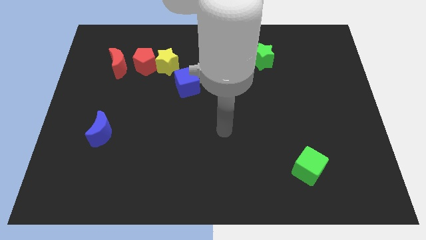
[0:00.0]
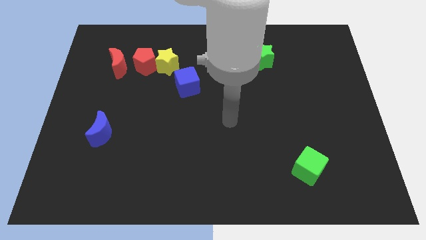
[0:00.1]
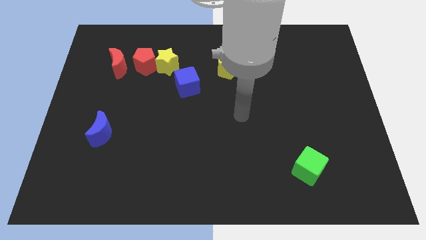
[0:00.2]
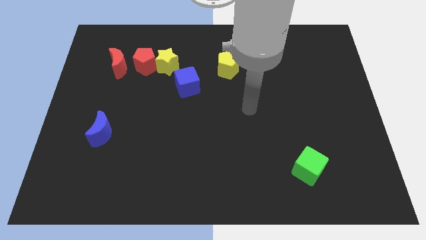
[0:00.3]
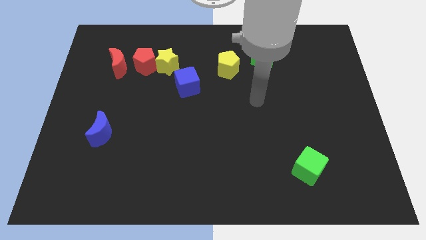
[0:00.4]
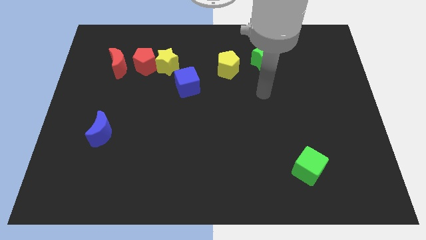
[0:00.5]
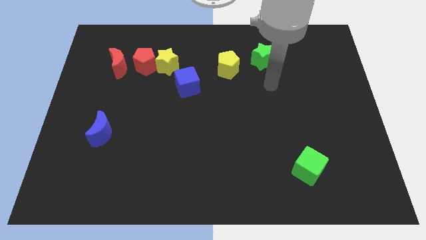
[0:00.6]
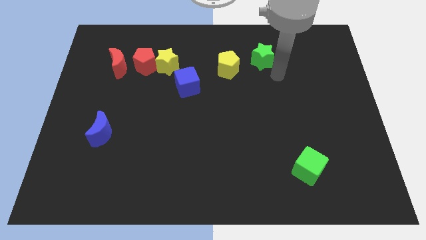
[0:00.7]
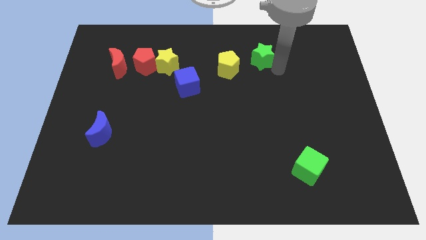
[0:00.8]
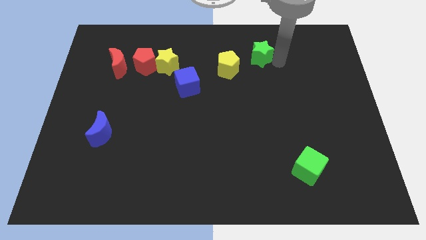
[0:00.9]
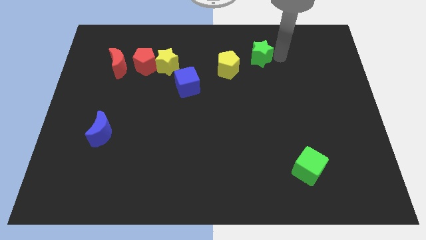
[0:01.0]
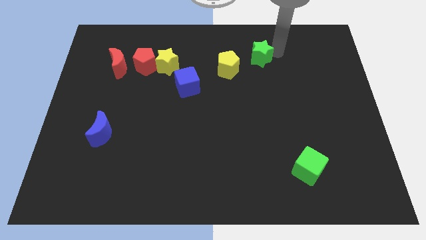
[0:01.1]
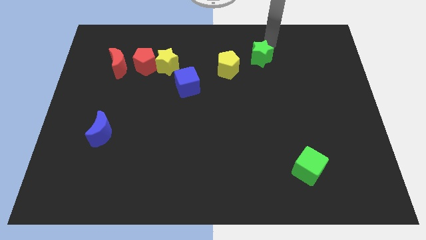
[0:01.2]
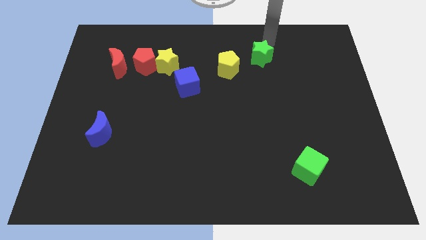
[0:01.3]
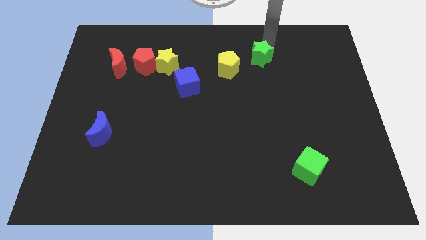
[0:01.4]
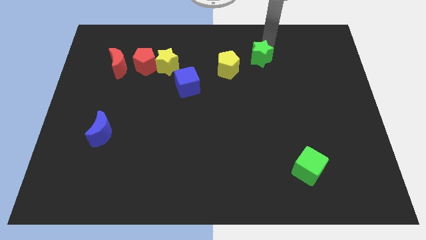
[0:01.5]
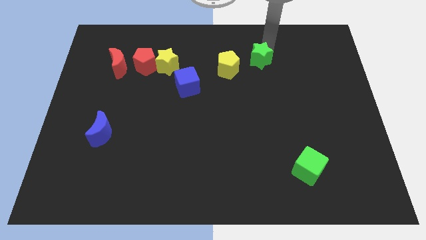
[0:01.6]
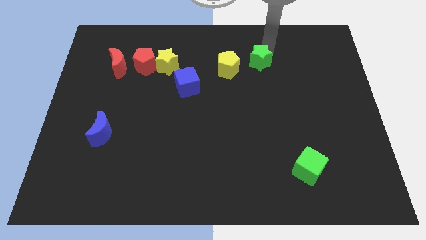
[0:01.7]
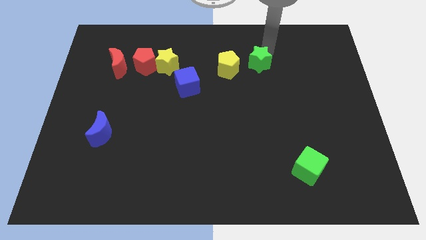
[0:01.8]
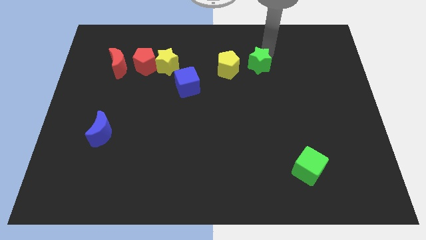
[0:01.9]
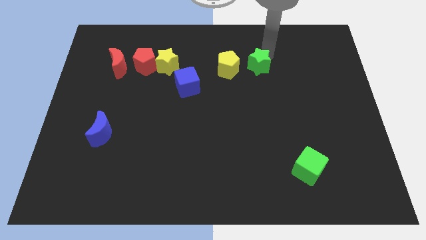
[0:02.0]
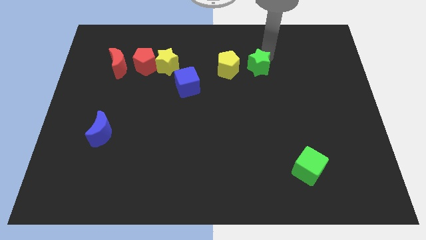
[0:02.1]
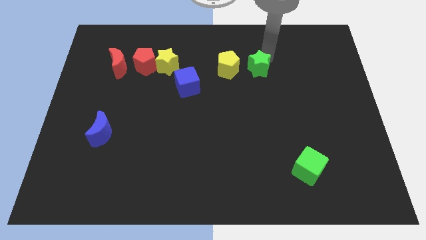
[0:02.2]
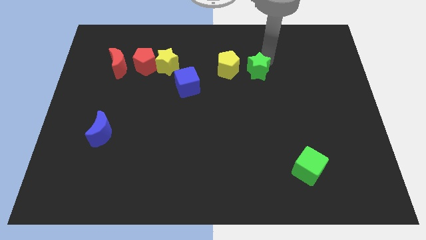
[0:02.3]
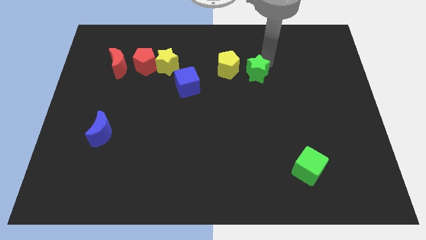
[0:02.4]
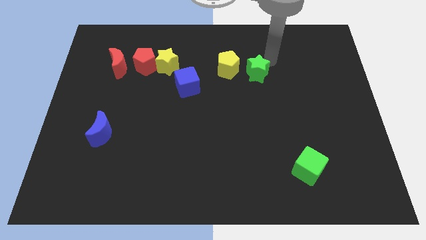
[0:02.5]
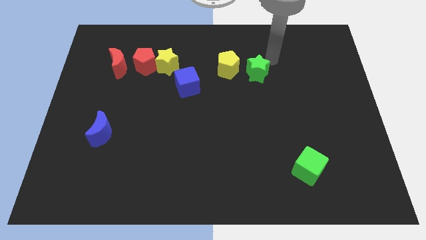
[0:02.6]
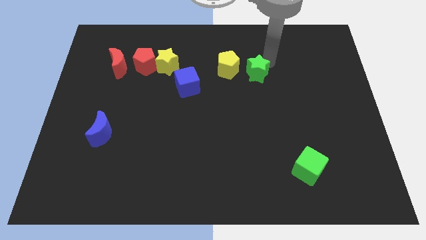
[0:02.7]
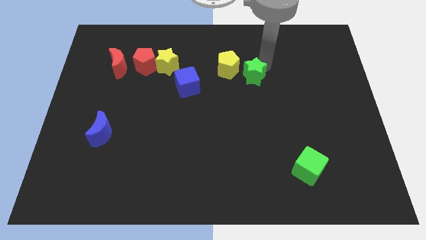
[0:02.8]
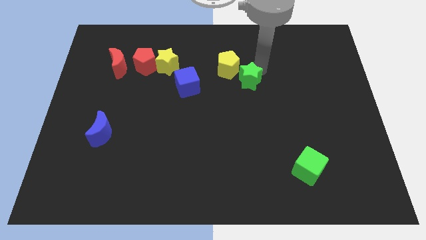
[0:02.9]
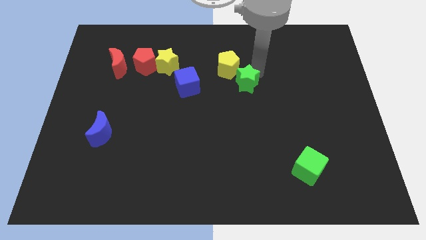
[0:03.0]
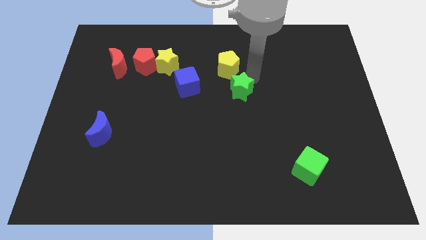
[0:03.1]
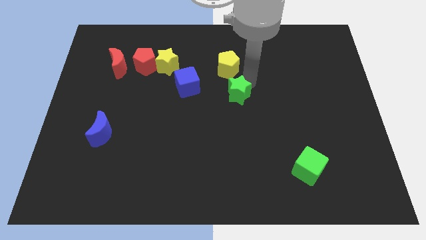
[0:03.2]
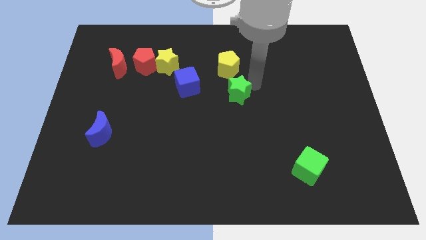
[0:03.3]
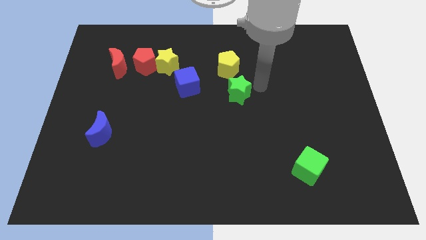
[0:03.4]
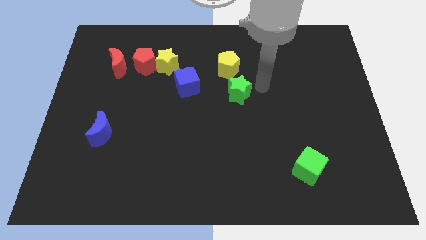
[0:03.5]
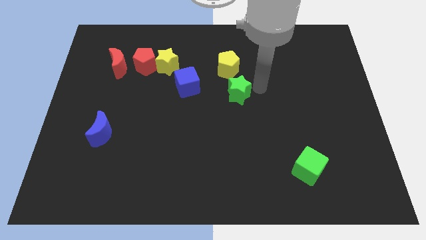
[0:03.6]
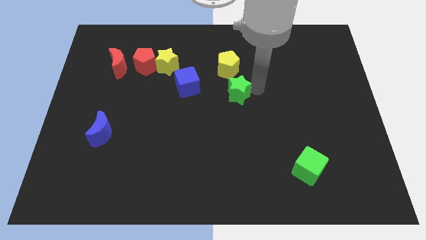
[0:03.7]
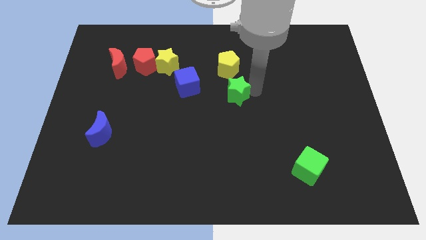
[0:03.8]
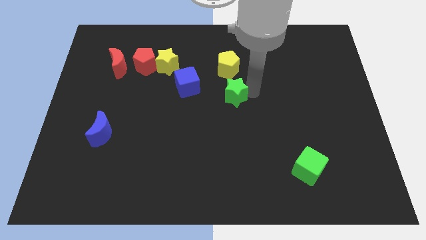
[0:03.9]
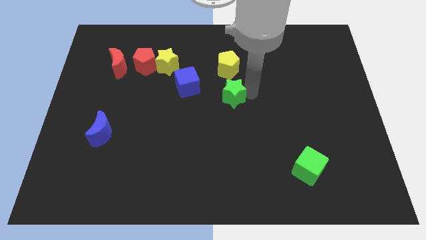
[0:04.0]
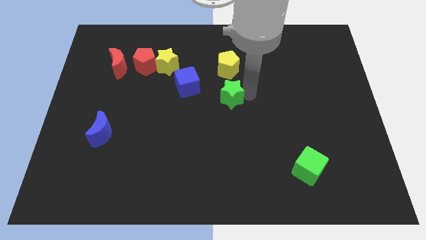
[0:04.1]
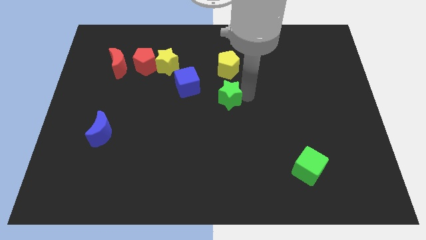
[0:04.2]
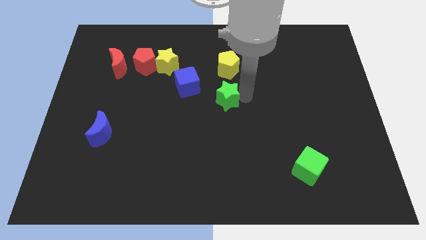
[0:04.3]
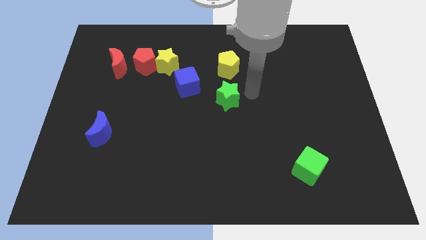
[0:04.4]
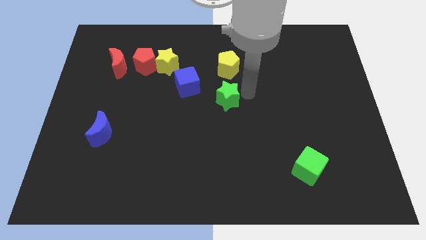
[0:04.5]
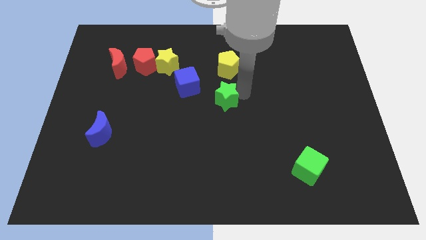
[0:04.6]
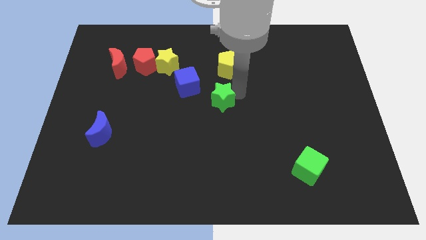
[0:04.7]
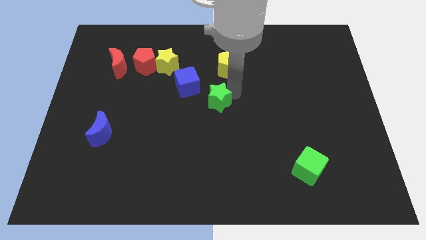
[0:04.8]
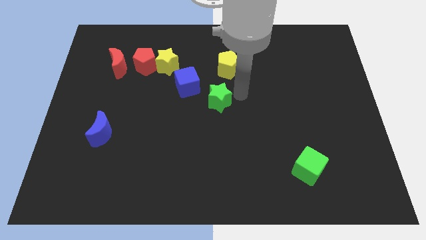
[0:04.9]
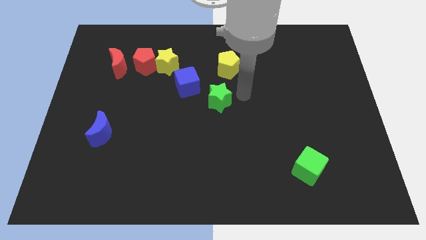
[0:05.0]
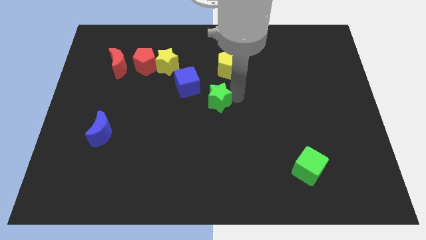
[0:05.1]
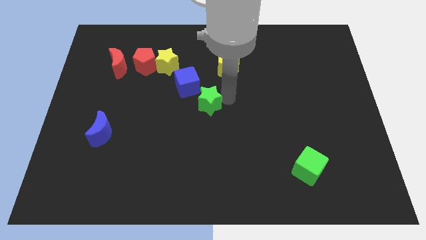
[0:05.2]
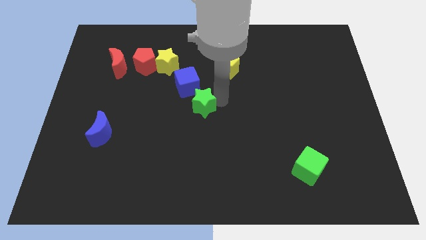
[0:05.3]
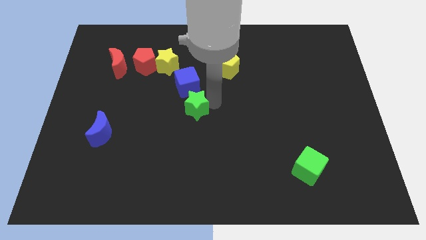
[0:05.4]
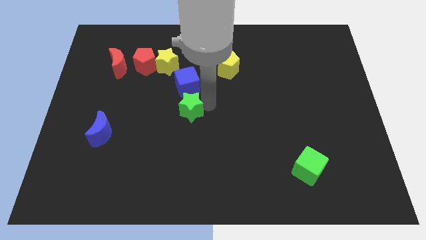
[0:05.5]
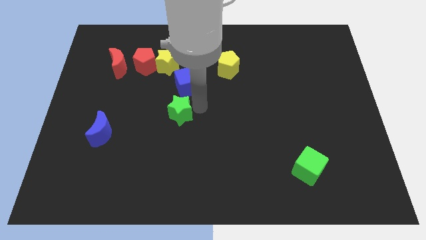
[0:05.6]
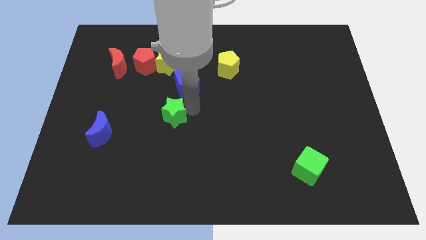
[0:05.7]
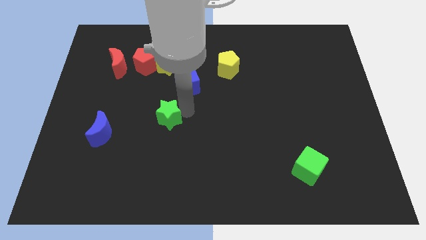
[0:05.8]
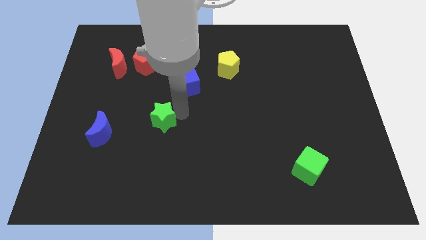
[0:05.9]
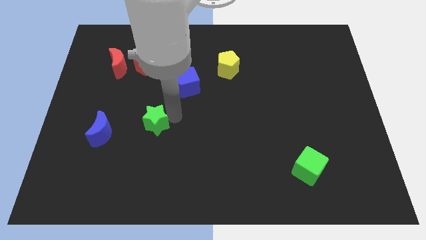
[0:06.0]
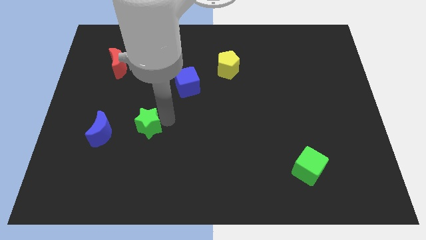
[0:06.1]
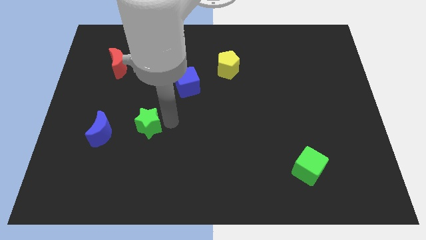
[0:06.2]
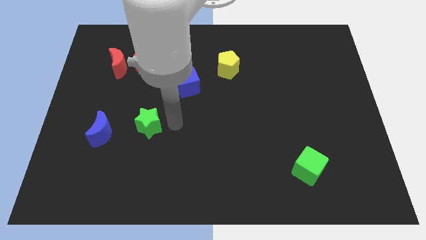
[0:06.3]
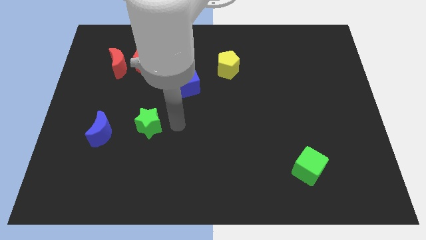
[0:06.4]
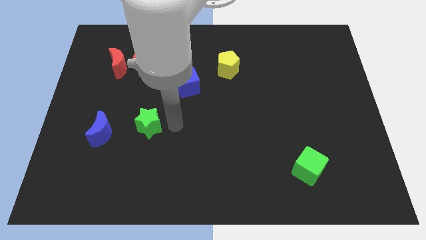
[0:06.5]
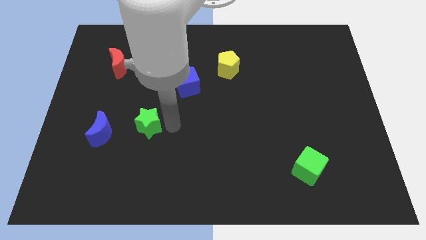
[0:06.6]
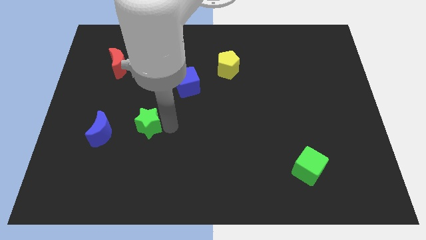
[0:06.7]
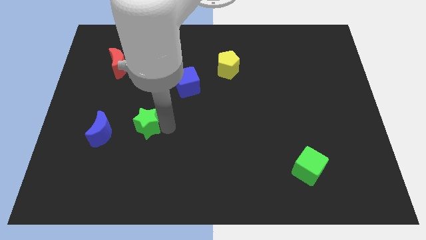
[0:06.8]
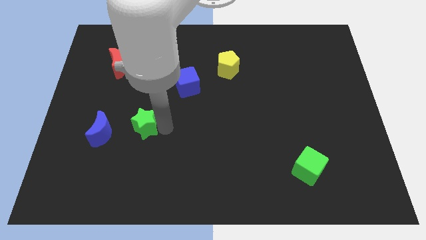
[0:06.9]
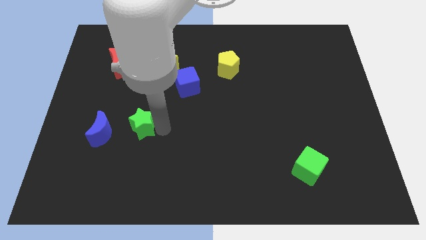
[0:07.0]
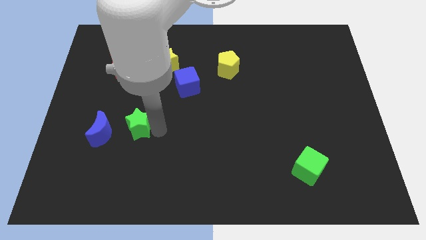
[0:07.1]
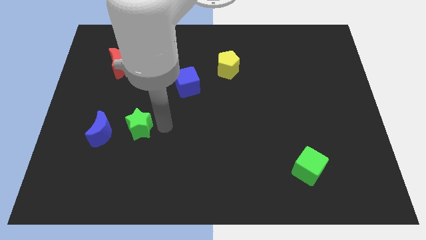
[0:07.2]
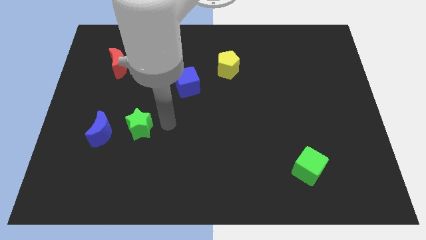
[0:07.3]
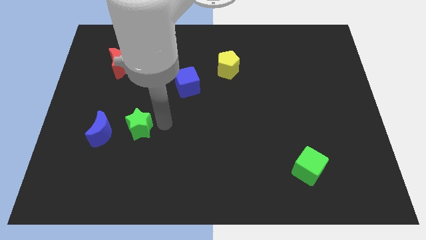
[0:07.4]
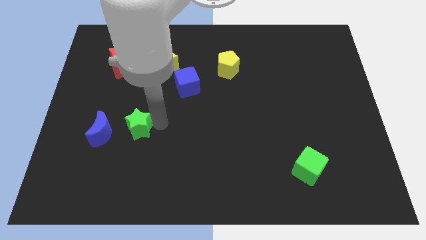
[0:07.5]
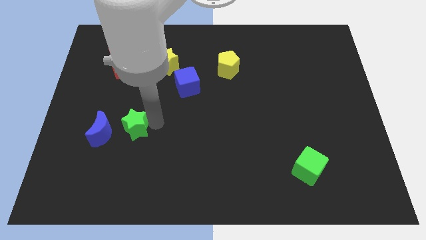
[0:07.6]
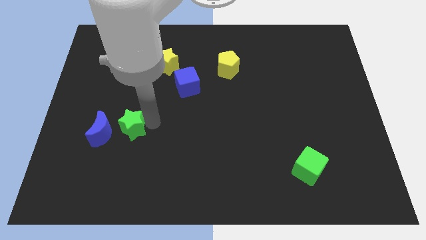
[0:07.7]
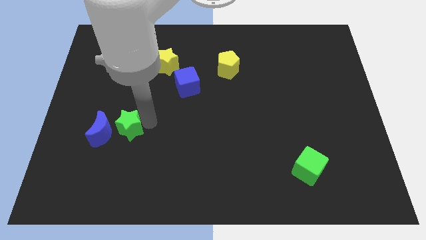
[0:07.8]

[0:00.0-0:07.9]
push the green star to the blue moon
